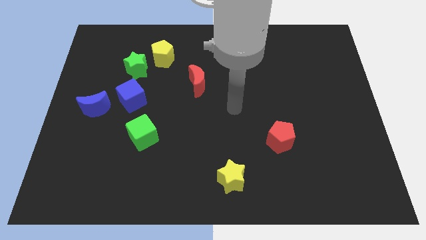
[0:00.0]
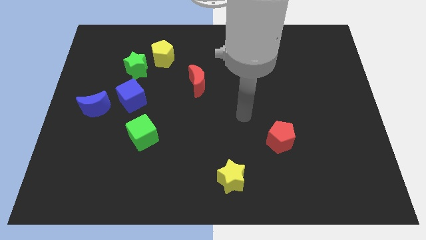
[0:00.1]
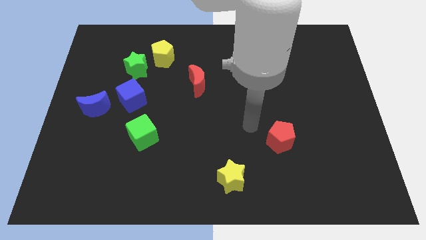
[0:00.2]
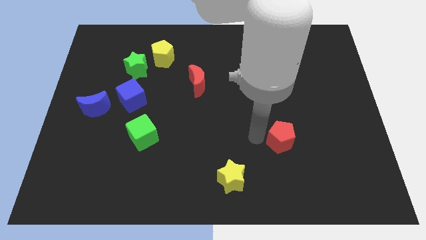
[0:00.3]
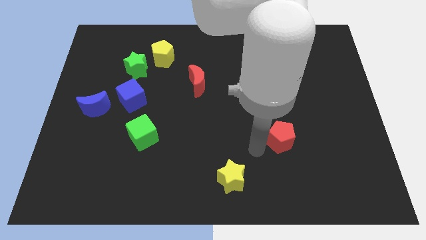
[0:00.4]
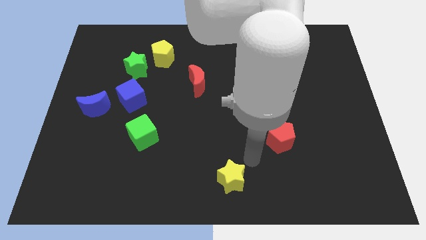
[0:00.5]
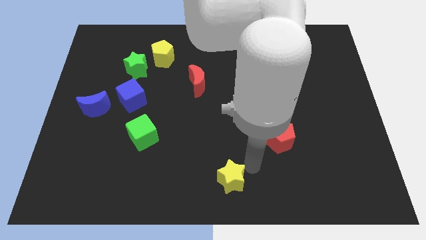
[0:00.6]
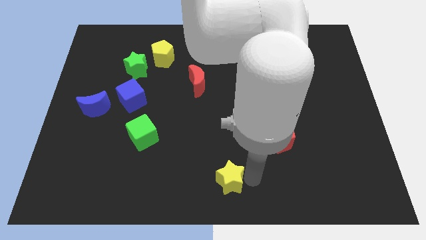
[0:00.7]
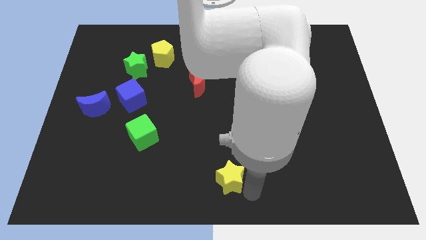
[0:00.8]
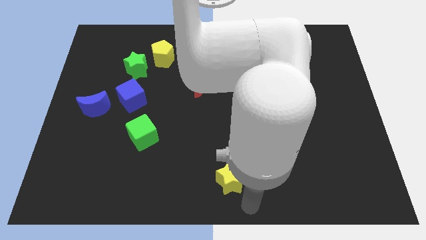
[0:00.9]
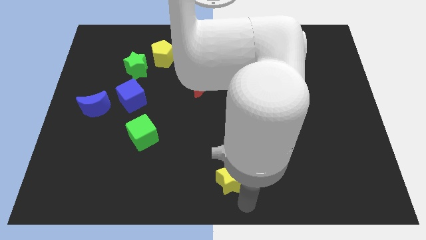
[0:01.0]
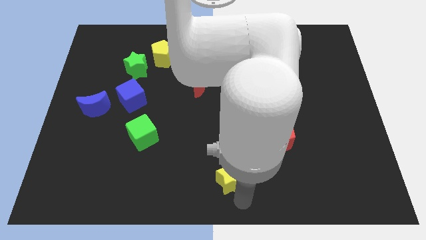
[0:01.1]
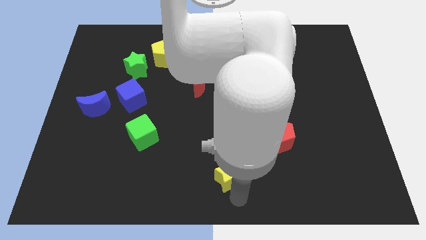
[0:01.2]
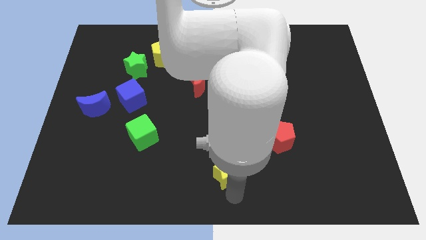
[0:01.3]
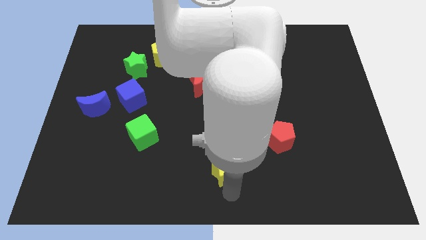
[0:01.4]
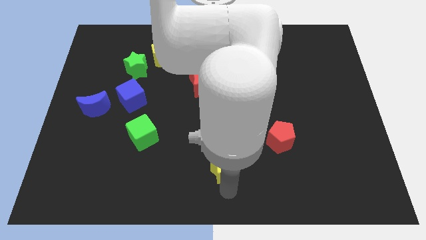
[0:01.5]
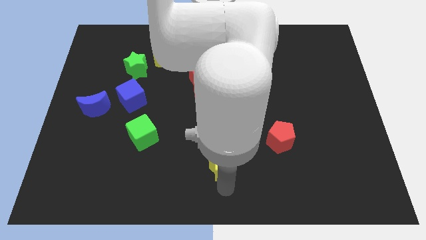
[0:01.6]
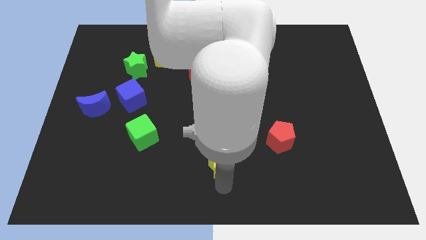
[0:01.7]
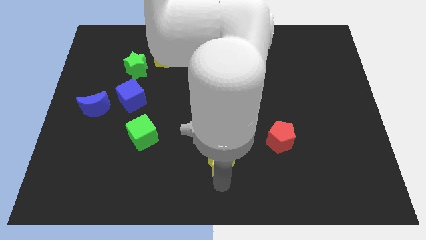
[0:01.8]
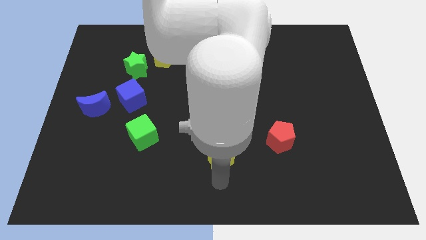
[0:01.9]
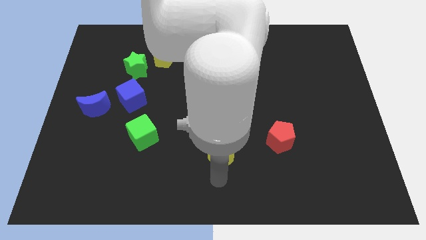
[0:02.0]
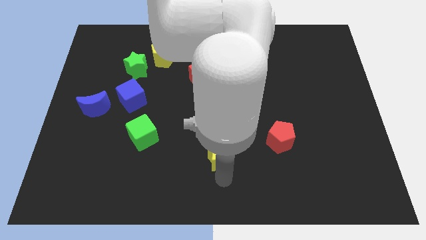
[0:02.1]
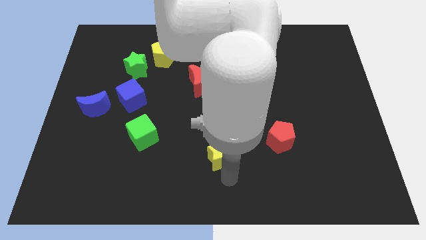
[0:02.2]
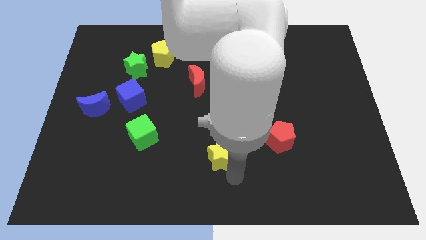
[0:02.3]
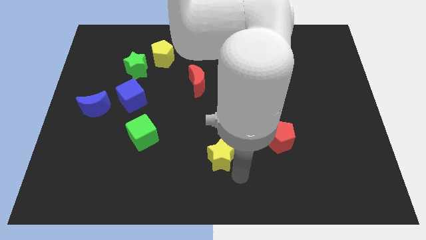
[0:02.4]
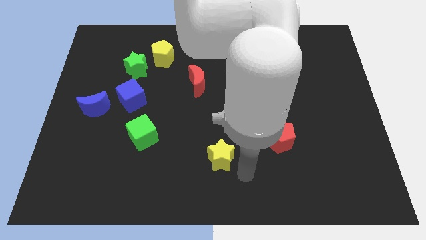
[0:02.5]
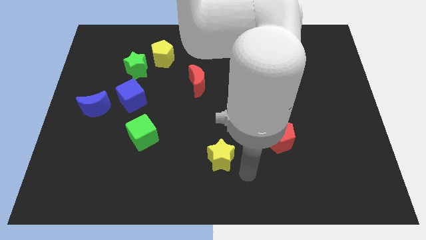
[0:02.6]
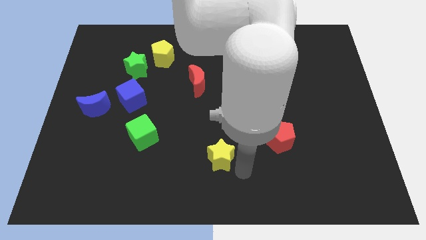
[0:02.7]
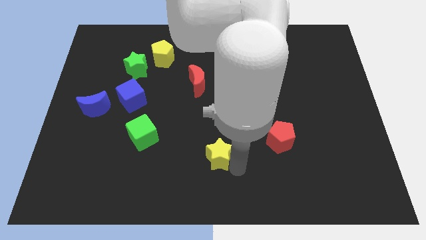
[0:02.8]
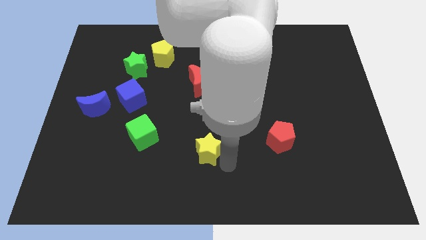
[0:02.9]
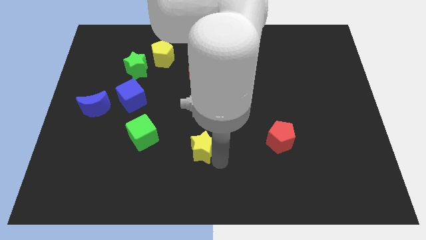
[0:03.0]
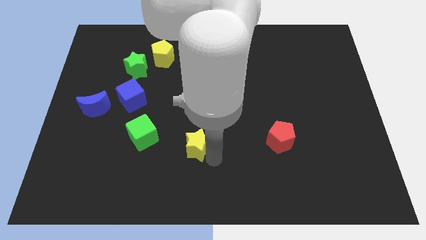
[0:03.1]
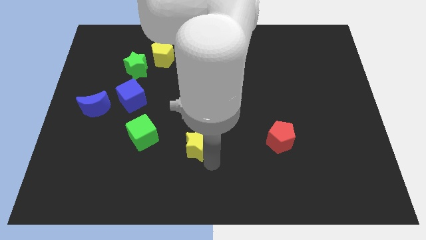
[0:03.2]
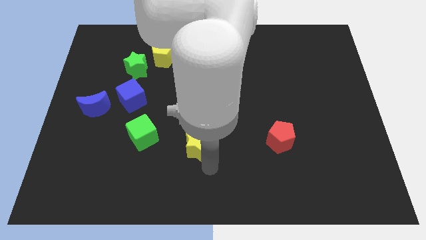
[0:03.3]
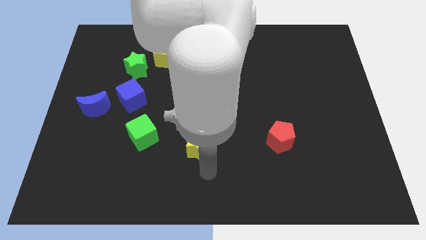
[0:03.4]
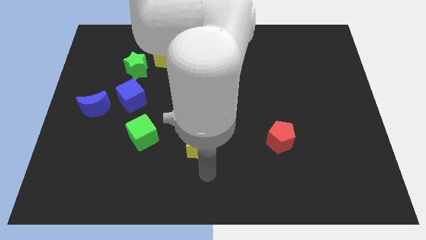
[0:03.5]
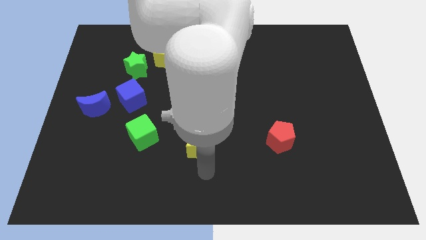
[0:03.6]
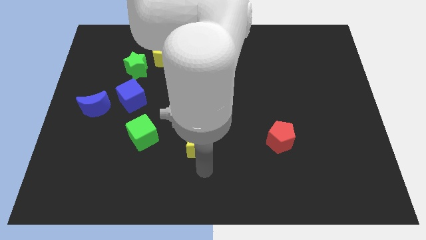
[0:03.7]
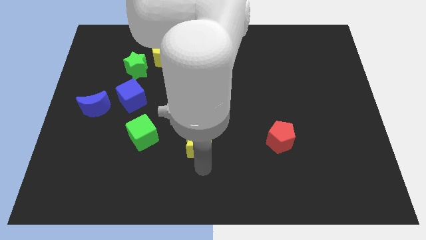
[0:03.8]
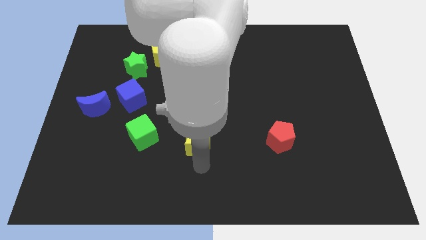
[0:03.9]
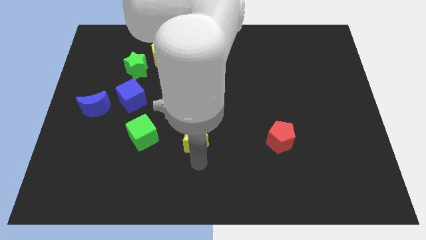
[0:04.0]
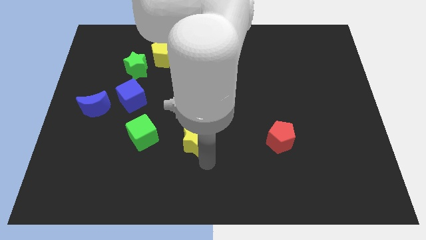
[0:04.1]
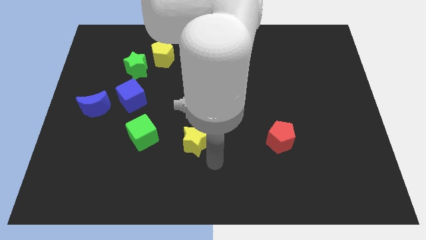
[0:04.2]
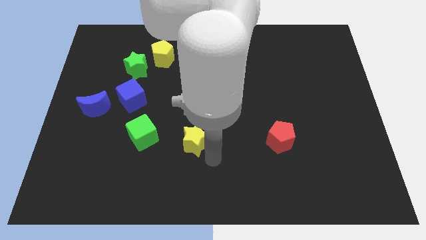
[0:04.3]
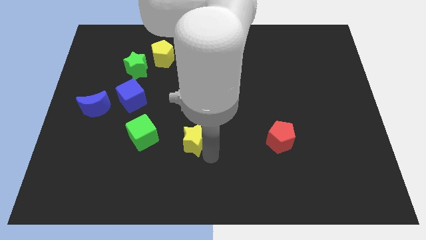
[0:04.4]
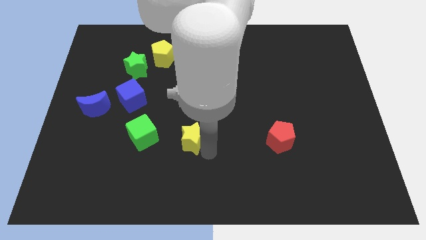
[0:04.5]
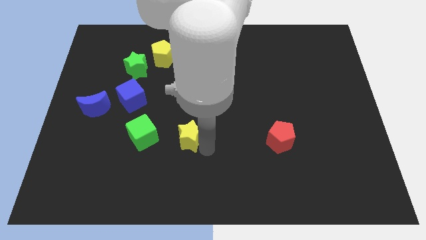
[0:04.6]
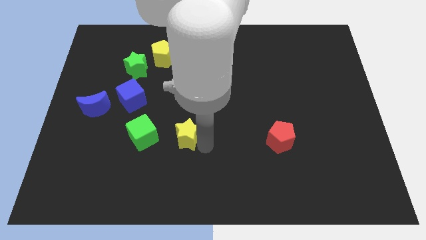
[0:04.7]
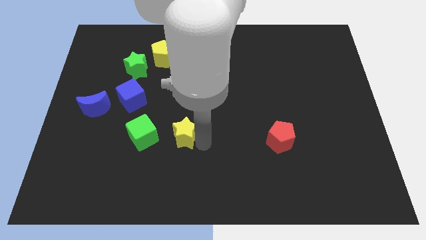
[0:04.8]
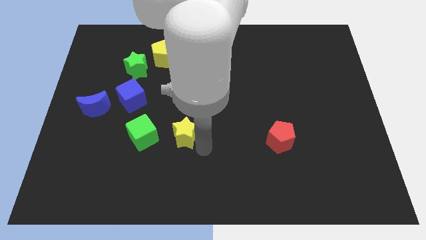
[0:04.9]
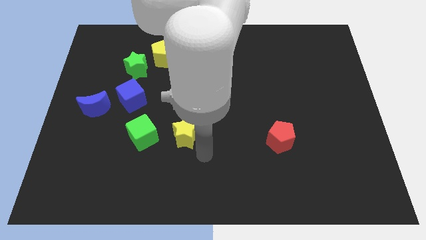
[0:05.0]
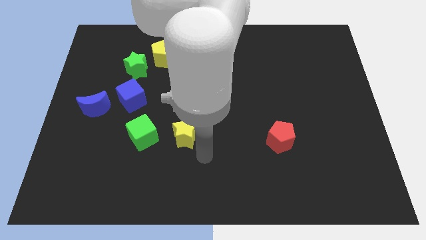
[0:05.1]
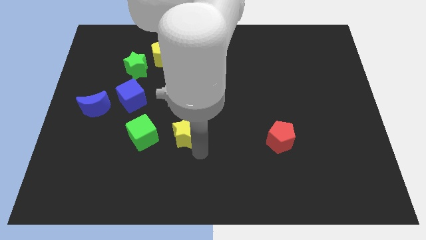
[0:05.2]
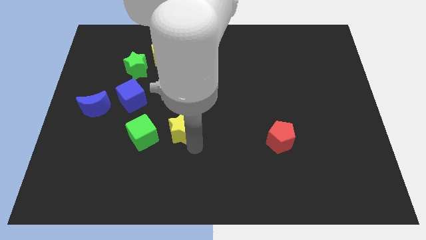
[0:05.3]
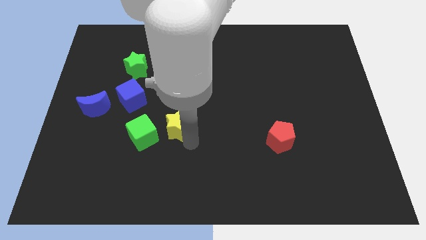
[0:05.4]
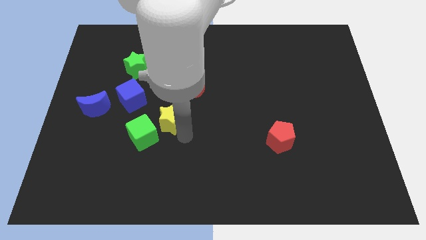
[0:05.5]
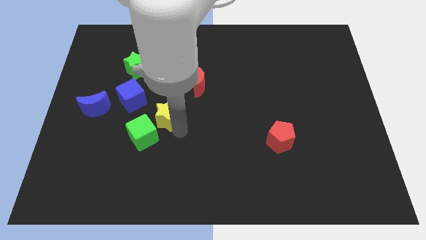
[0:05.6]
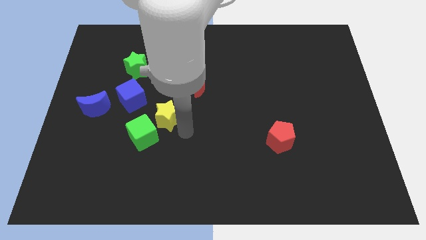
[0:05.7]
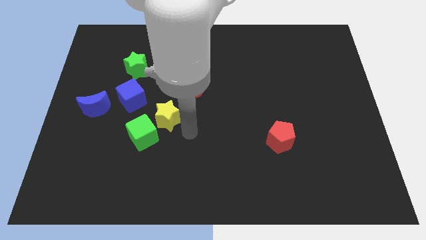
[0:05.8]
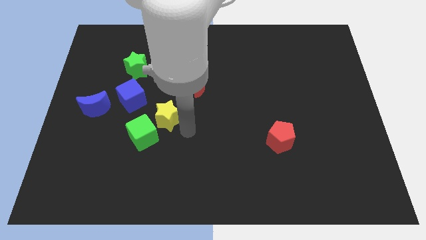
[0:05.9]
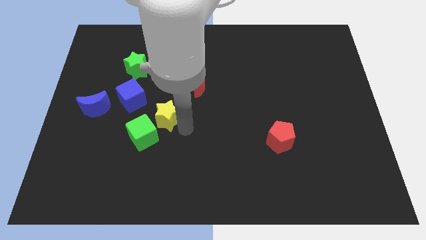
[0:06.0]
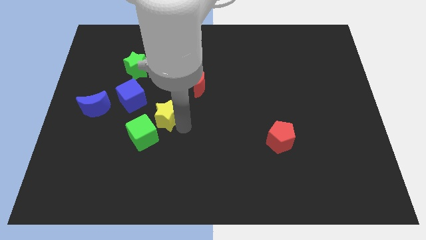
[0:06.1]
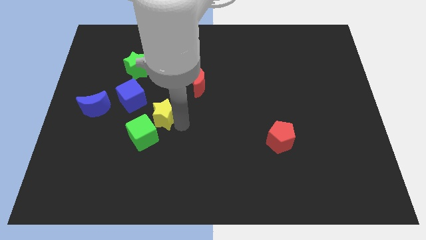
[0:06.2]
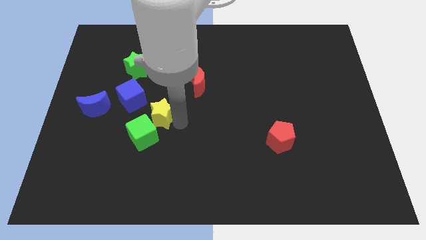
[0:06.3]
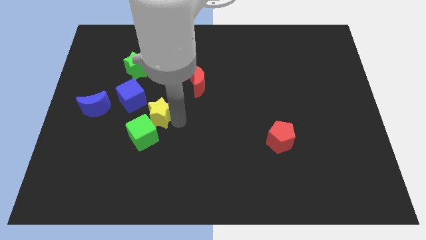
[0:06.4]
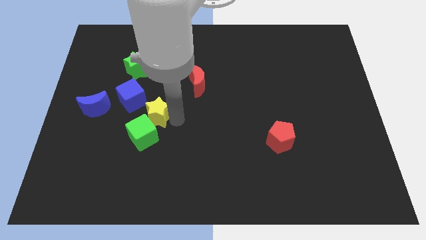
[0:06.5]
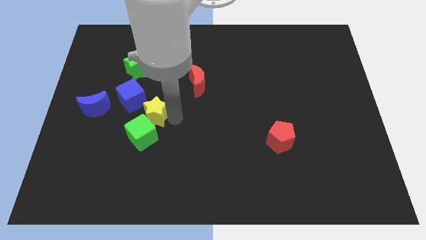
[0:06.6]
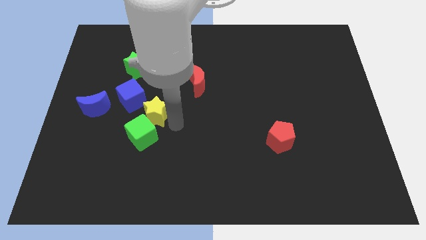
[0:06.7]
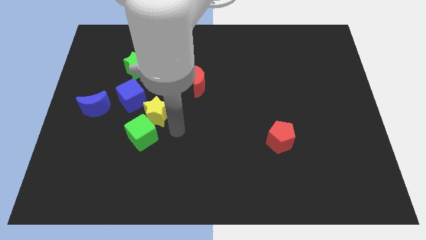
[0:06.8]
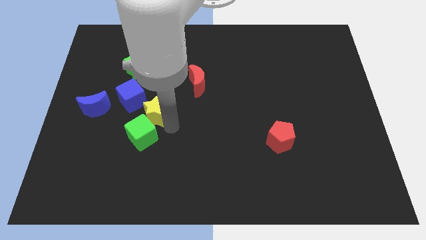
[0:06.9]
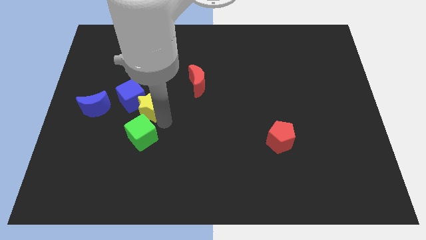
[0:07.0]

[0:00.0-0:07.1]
push the yellow star towards the blue cube

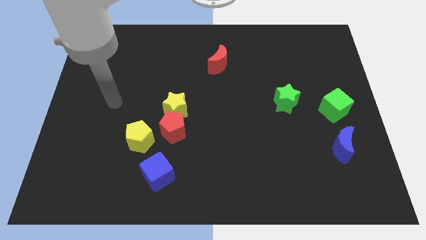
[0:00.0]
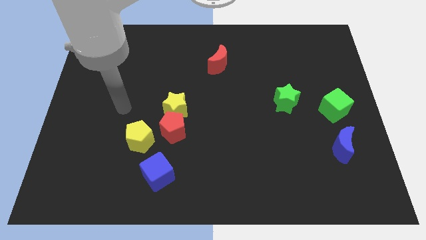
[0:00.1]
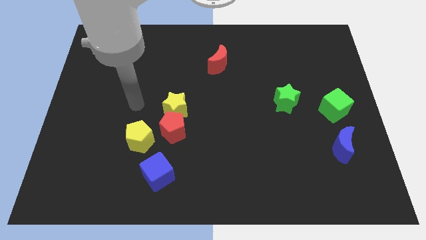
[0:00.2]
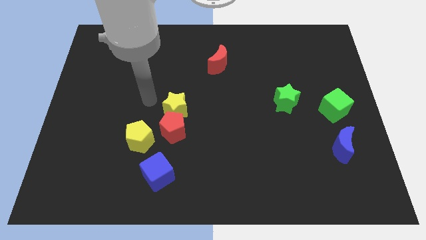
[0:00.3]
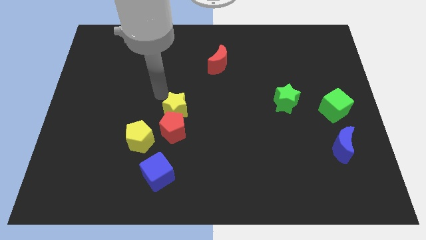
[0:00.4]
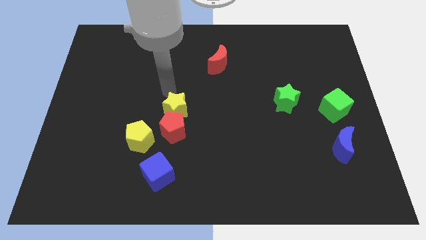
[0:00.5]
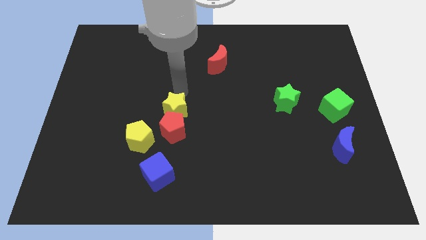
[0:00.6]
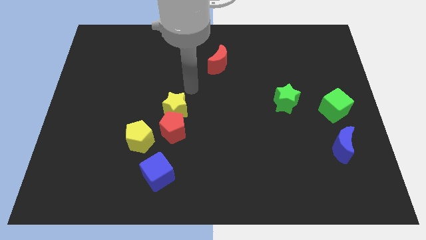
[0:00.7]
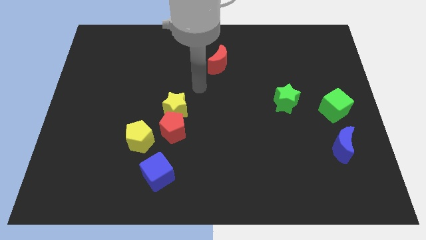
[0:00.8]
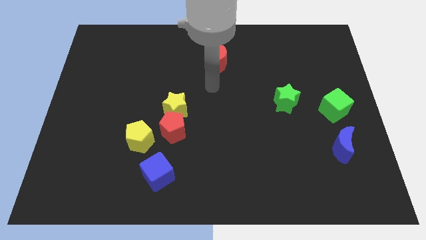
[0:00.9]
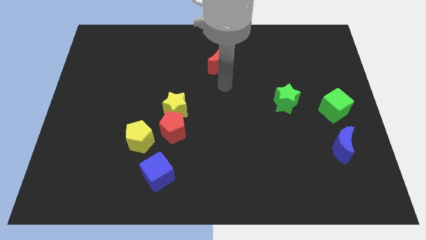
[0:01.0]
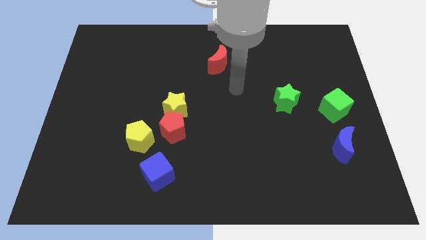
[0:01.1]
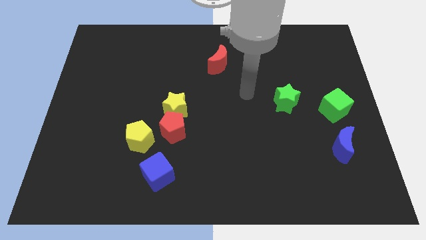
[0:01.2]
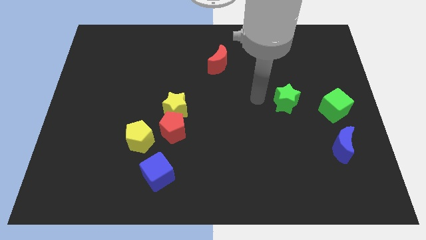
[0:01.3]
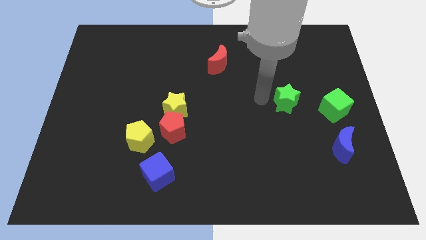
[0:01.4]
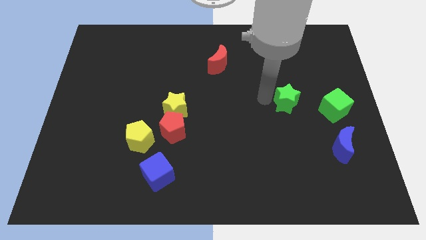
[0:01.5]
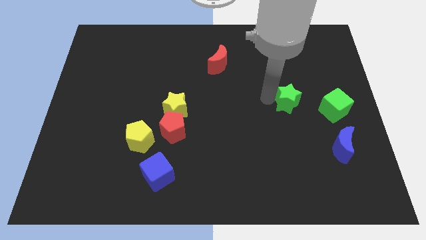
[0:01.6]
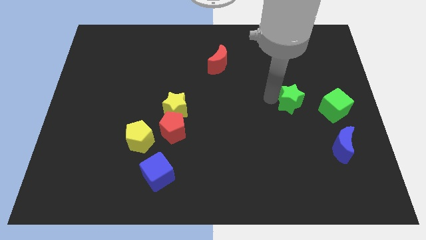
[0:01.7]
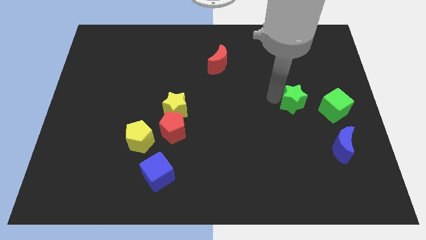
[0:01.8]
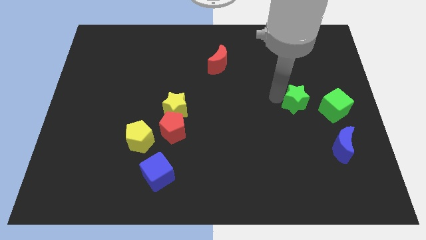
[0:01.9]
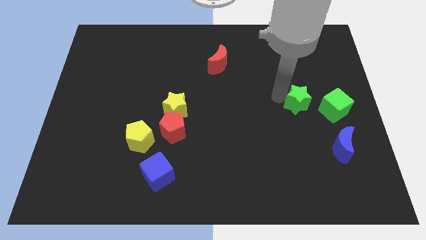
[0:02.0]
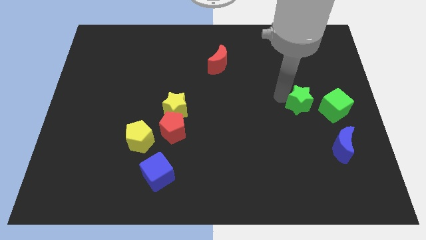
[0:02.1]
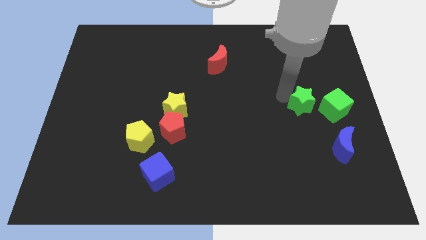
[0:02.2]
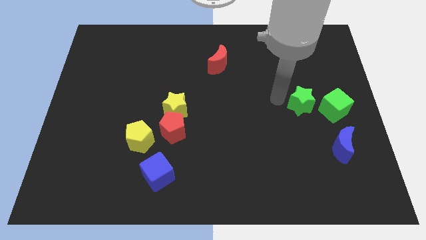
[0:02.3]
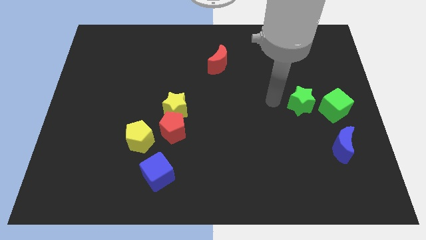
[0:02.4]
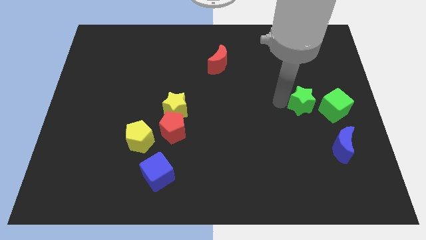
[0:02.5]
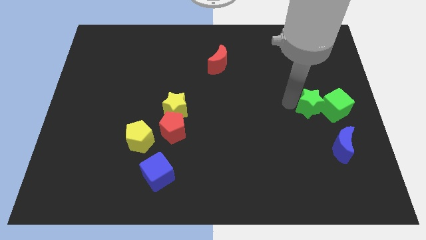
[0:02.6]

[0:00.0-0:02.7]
move the green star next to the green cube
